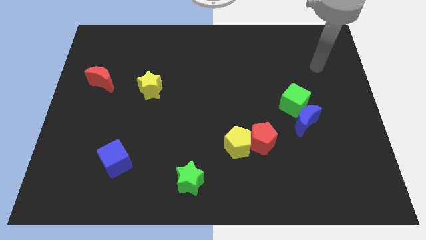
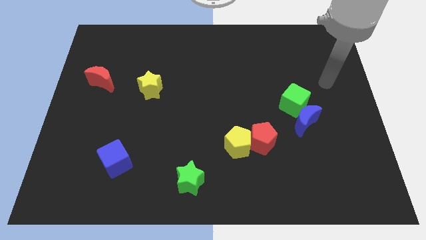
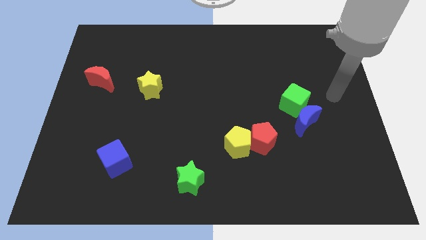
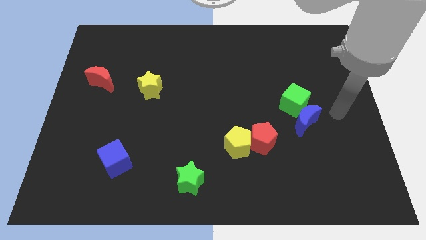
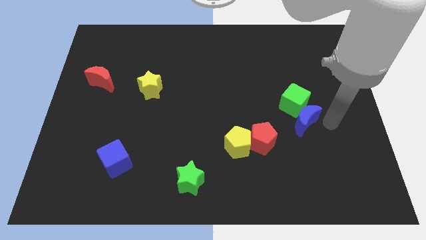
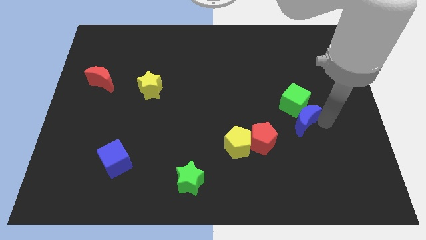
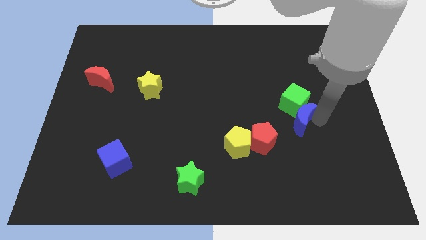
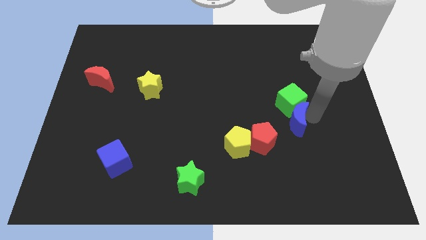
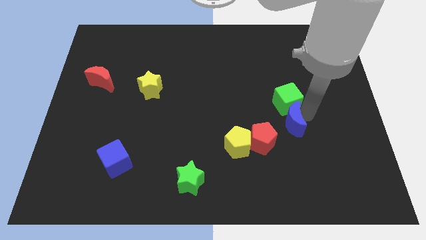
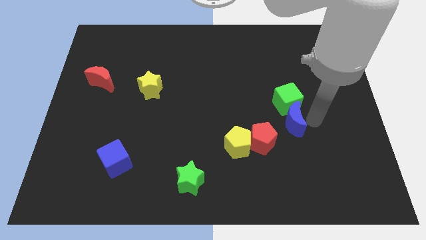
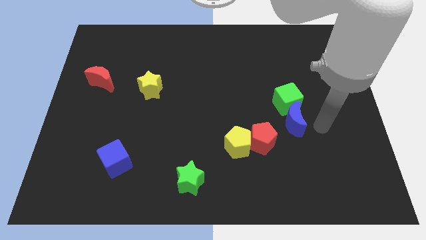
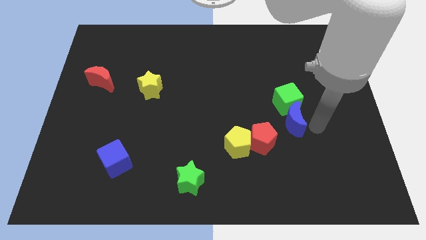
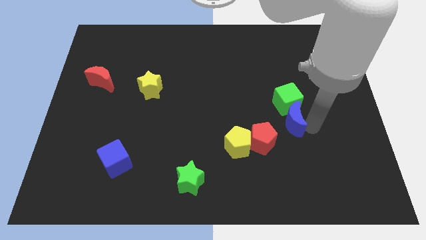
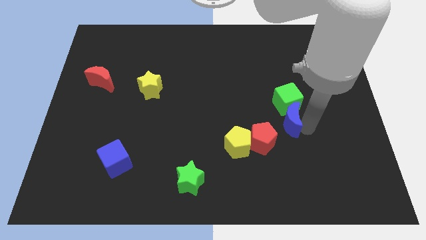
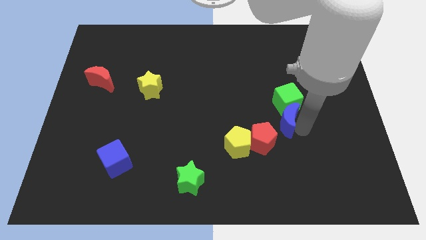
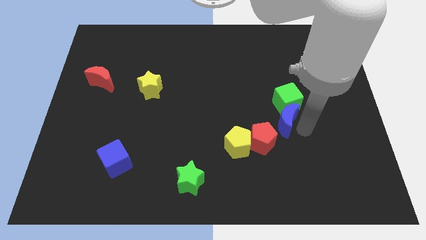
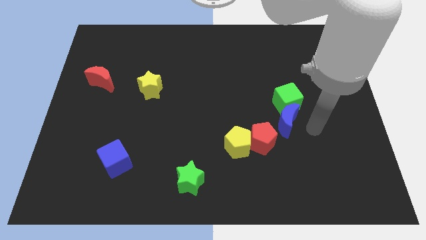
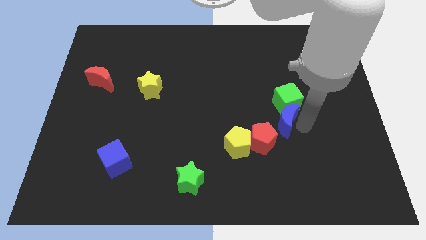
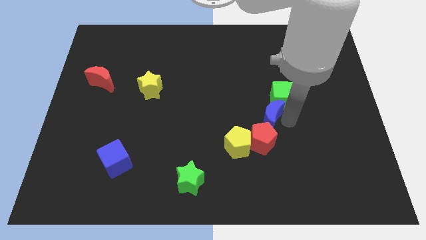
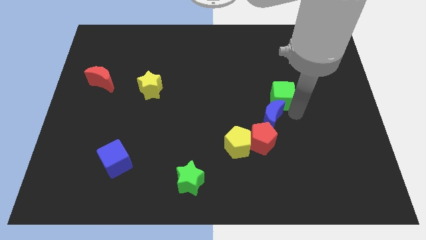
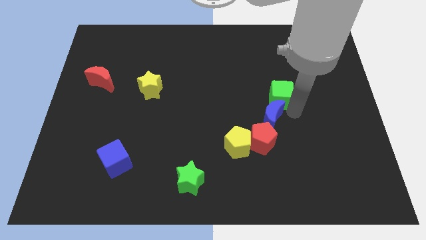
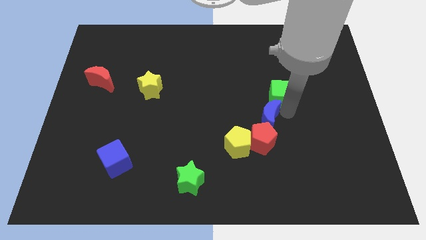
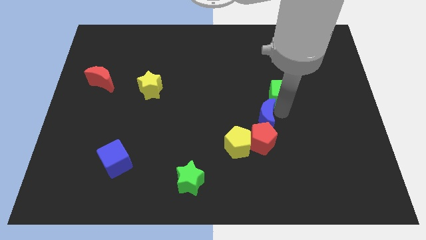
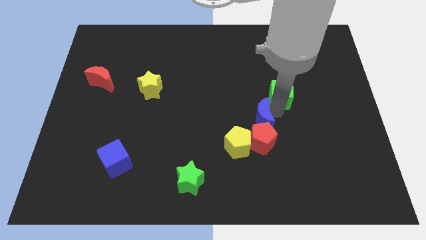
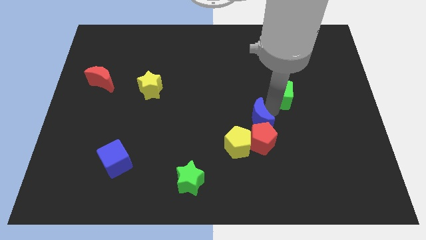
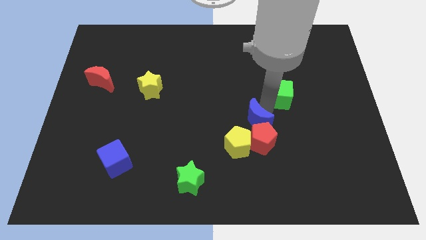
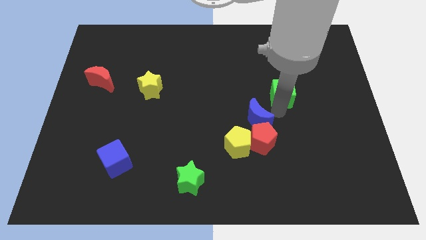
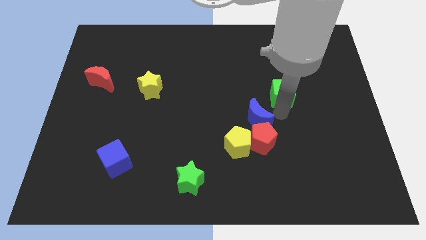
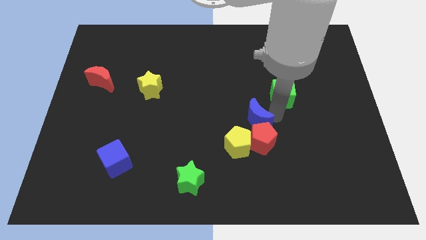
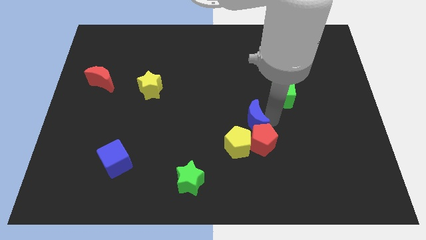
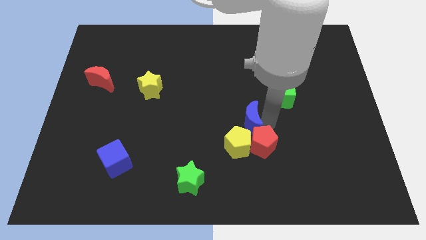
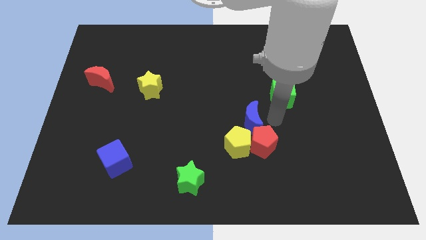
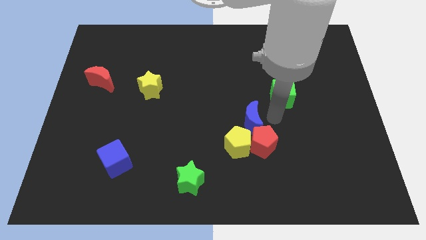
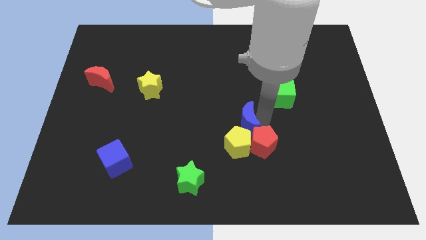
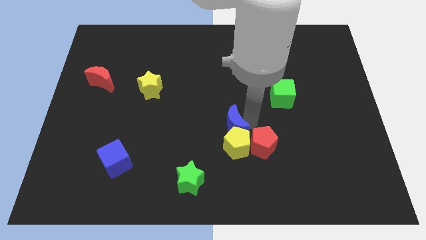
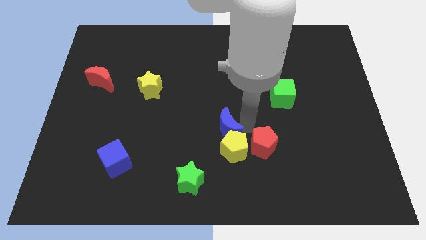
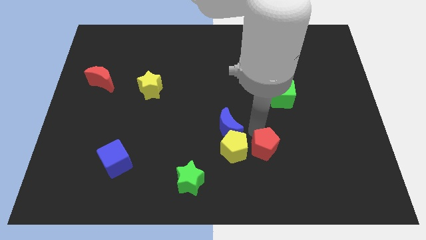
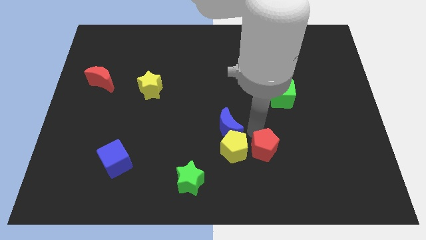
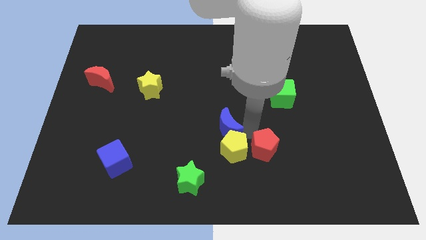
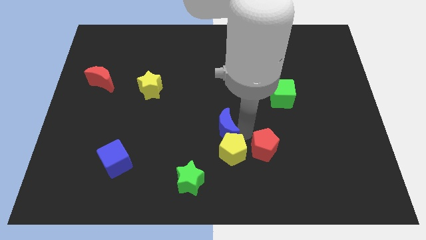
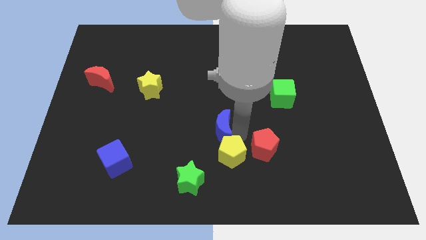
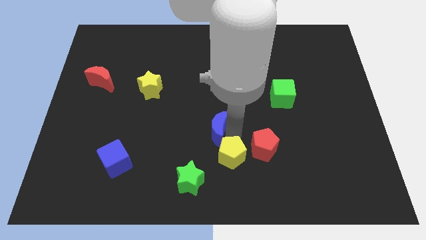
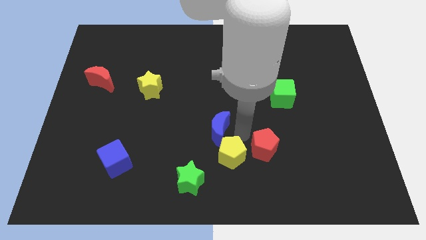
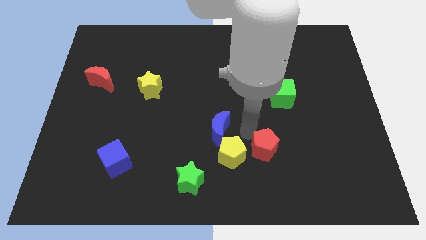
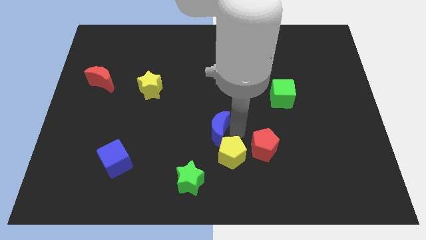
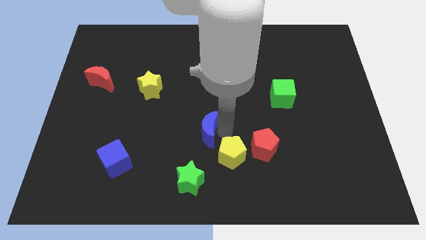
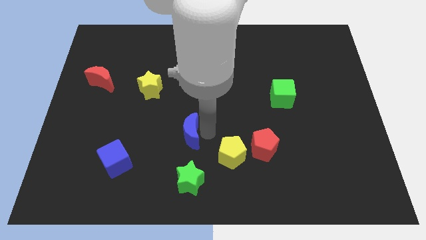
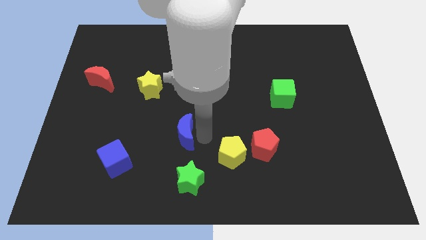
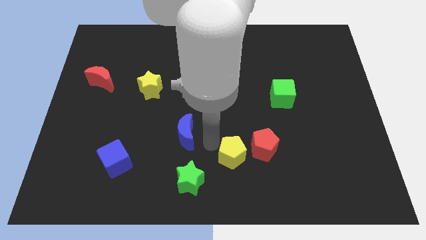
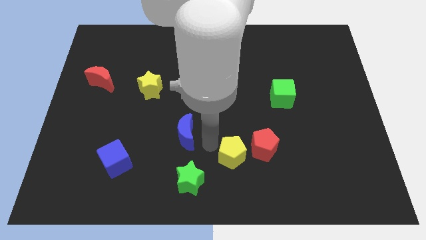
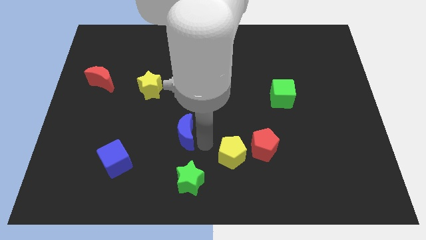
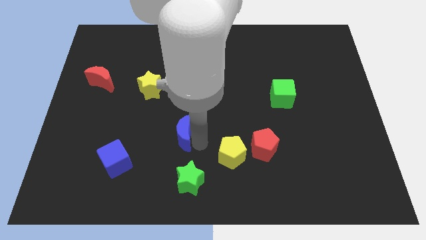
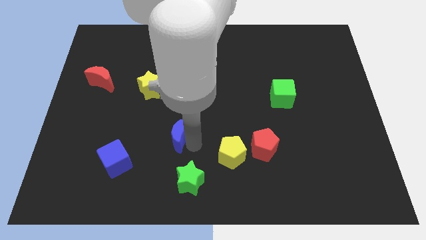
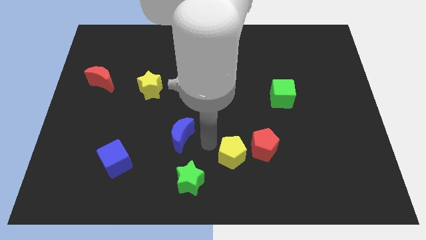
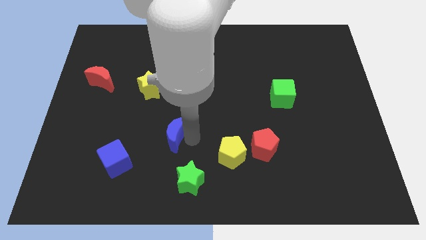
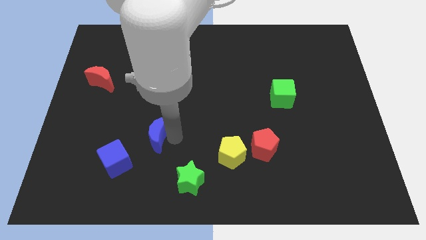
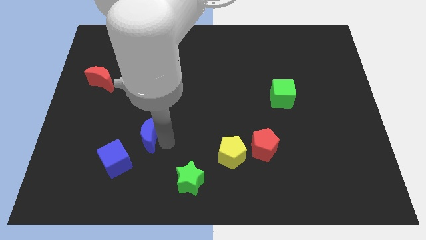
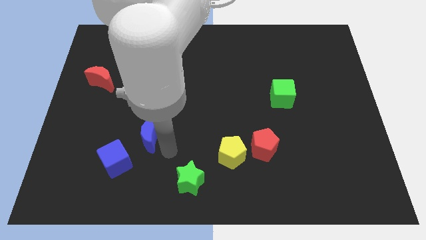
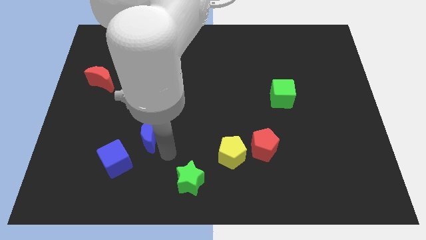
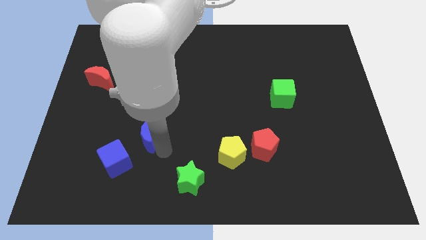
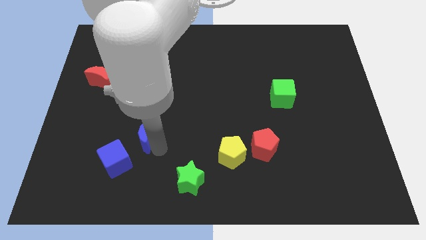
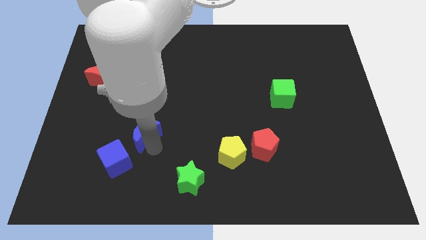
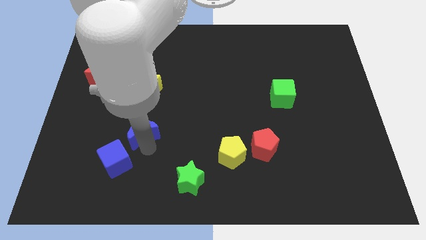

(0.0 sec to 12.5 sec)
put the blue moon to the top side of the blue cube

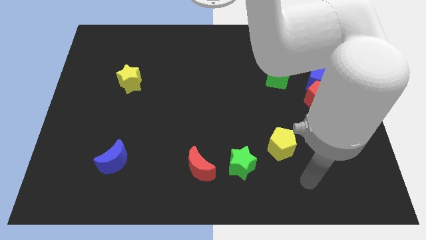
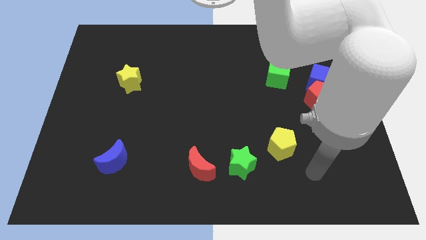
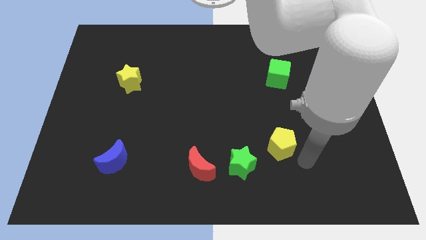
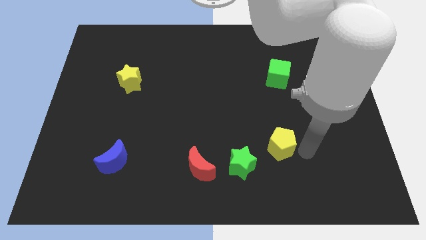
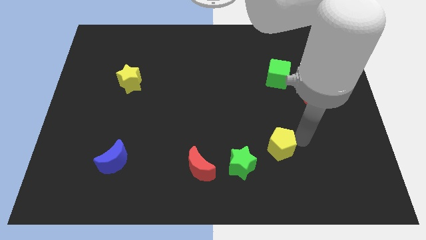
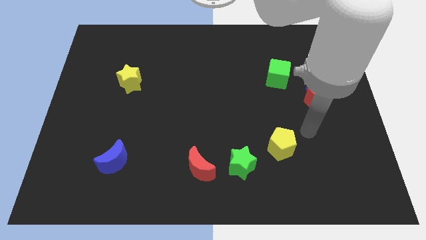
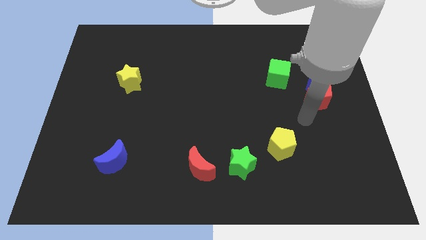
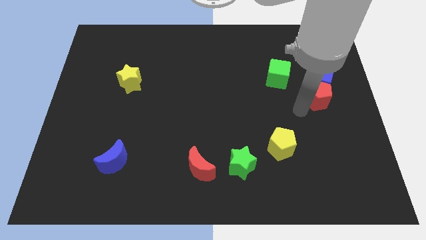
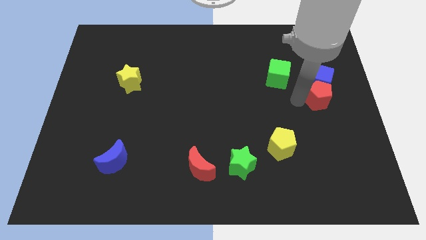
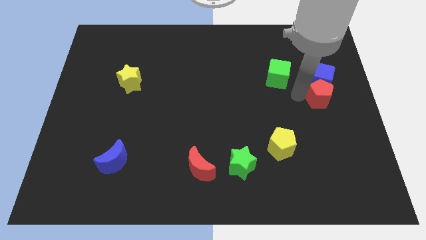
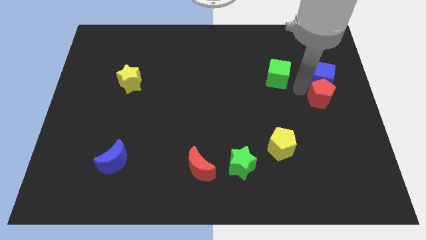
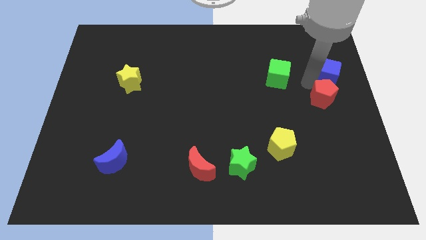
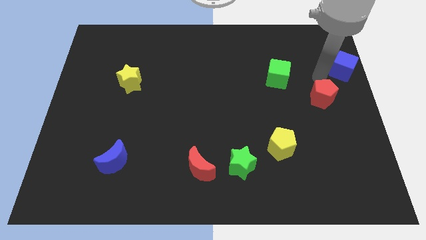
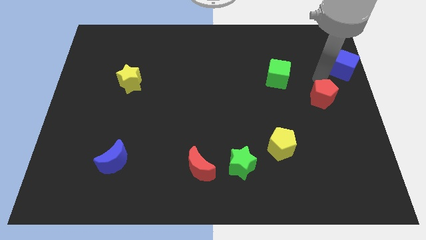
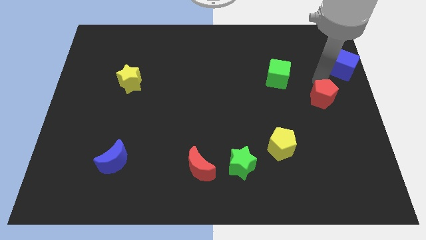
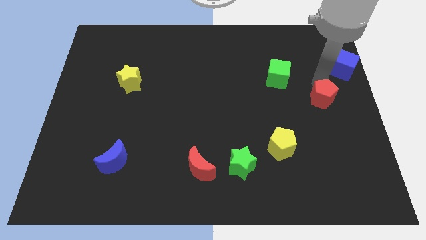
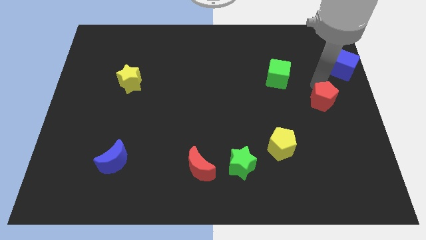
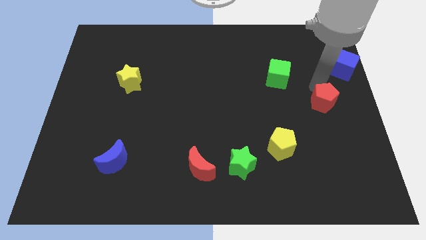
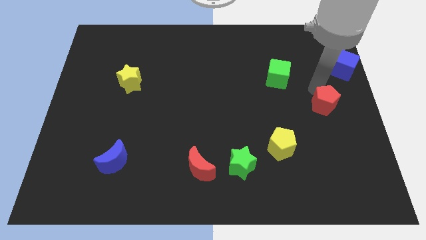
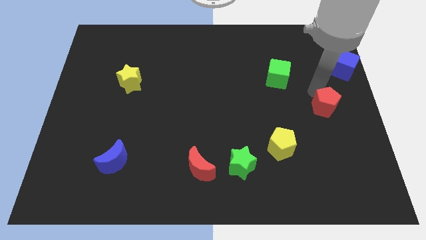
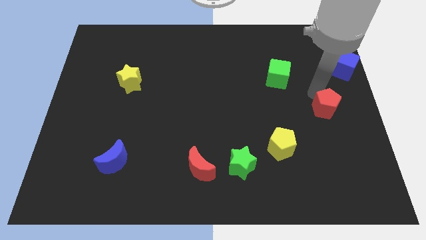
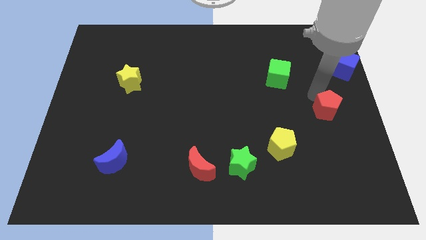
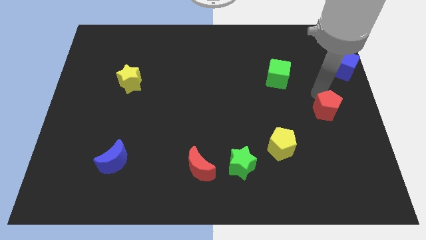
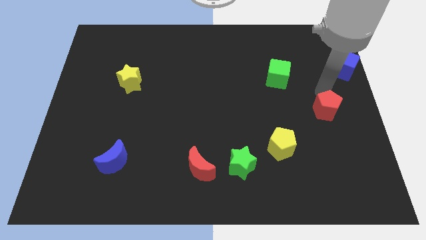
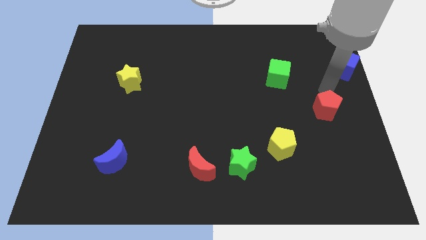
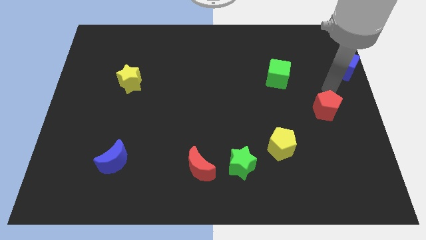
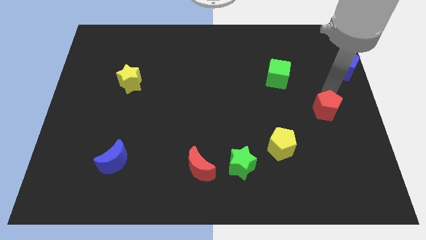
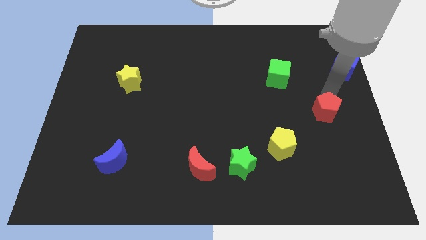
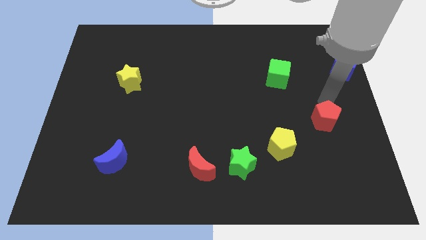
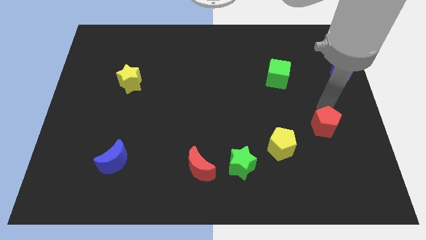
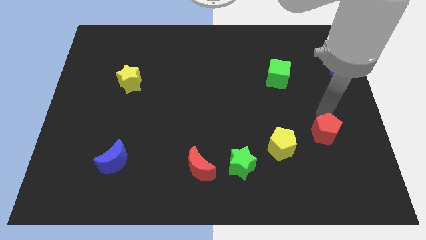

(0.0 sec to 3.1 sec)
slide the red pentagon right of the yellow pentagon
